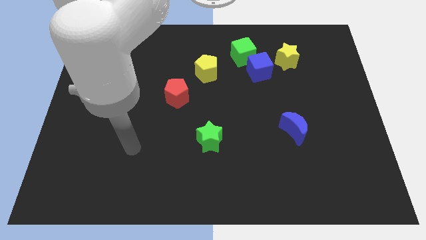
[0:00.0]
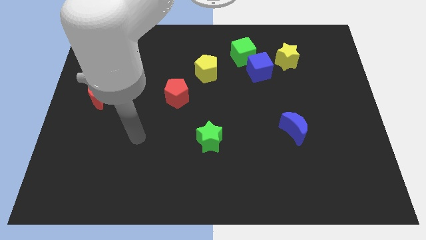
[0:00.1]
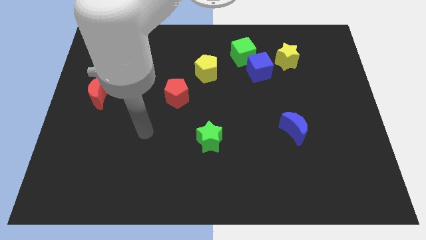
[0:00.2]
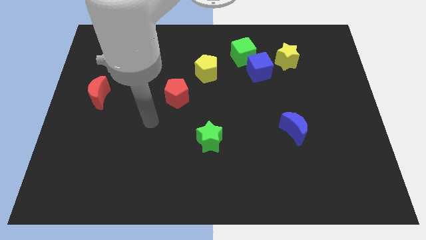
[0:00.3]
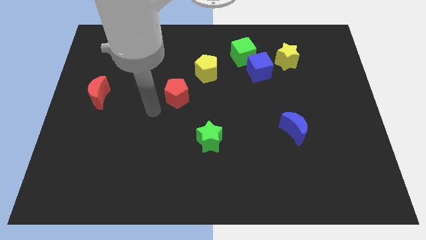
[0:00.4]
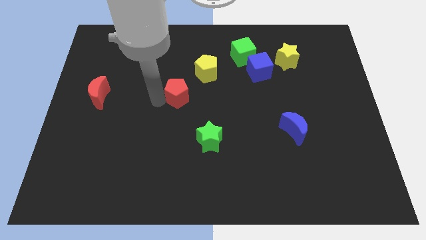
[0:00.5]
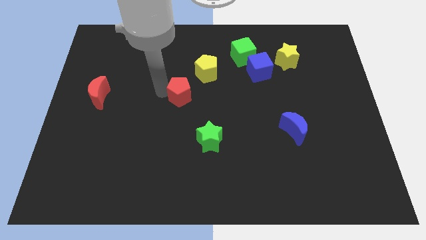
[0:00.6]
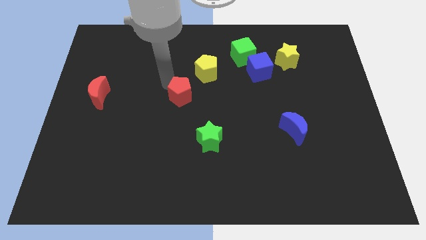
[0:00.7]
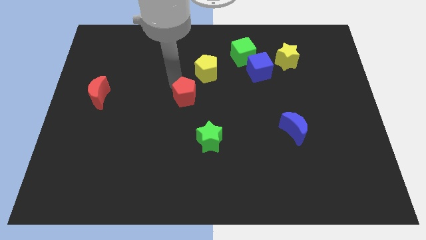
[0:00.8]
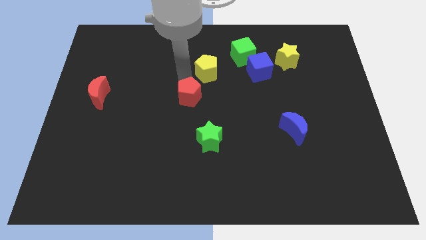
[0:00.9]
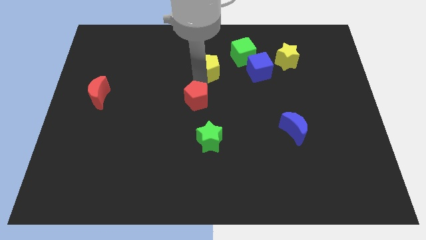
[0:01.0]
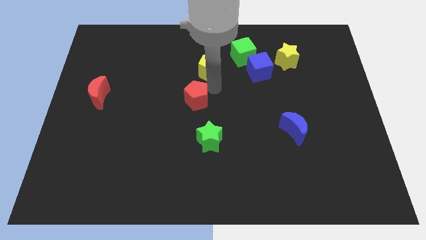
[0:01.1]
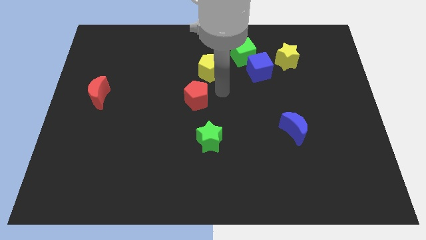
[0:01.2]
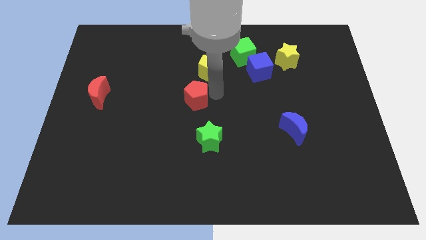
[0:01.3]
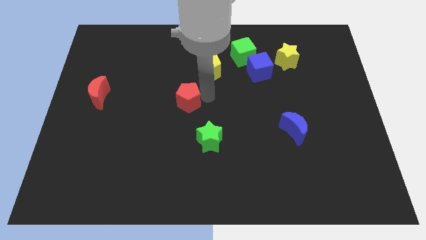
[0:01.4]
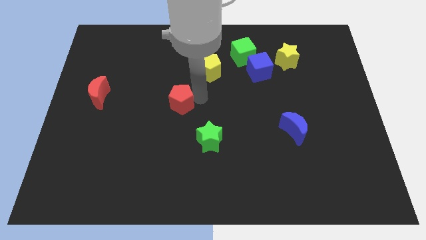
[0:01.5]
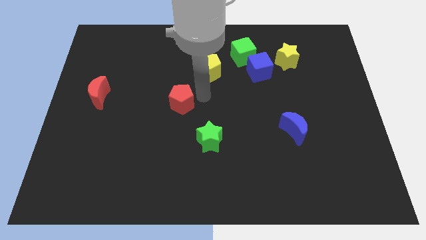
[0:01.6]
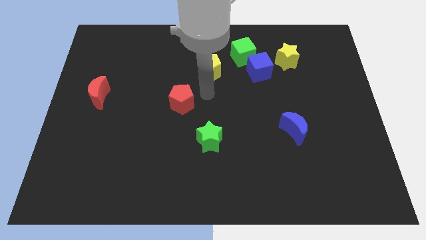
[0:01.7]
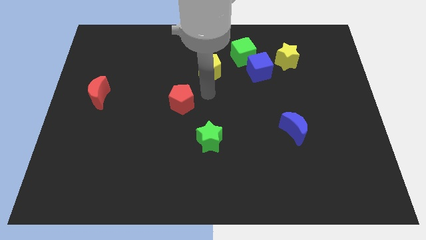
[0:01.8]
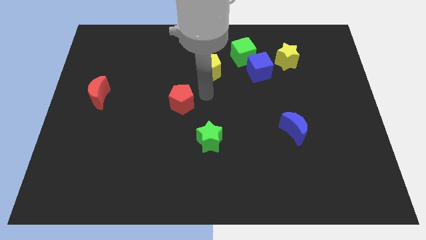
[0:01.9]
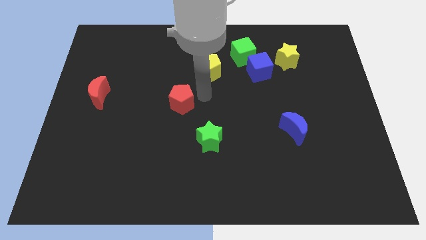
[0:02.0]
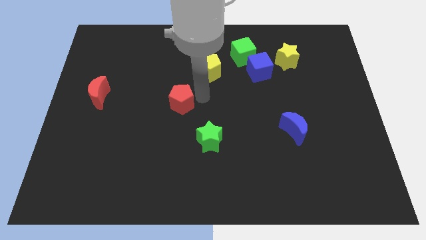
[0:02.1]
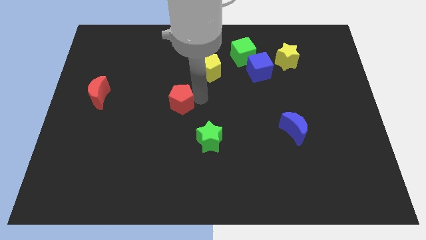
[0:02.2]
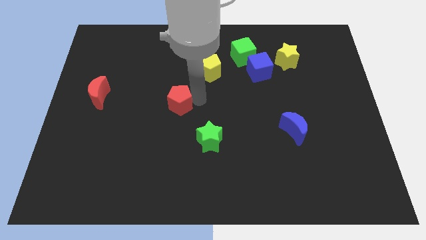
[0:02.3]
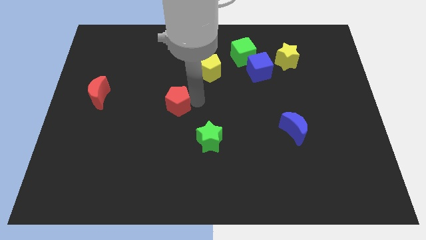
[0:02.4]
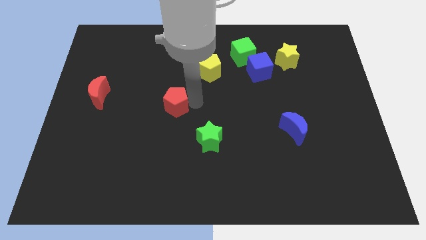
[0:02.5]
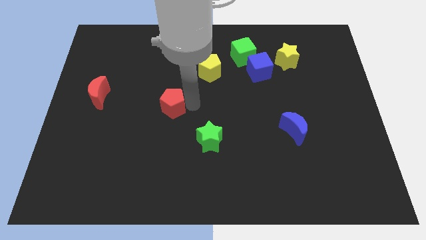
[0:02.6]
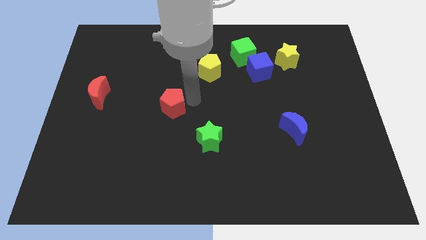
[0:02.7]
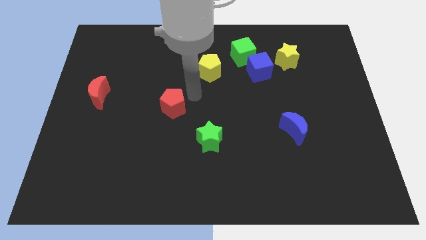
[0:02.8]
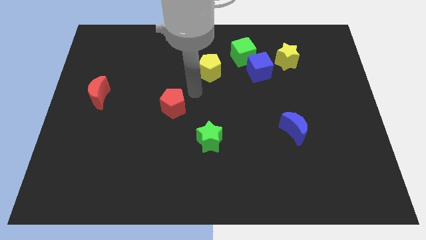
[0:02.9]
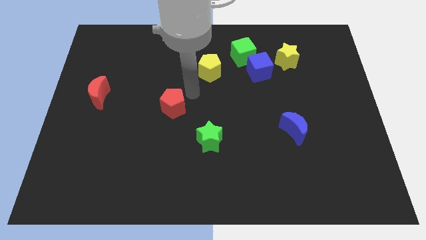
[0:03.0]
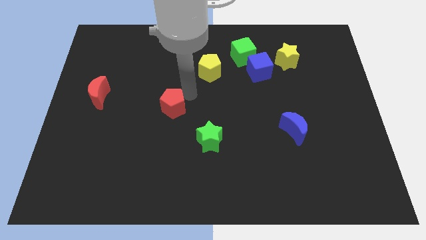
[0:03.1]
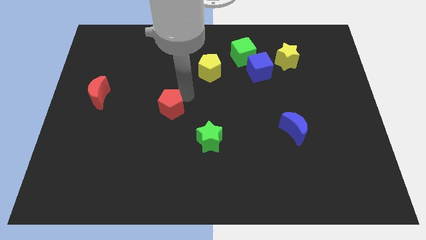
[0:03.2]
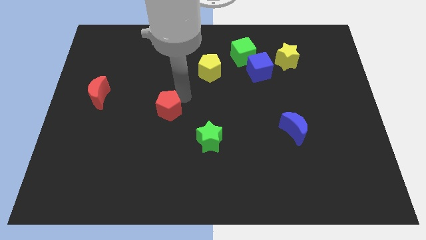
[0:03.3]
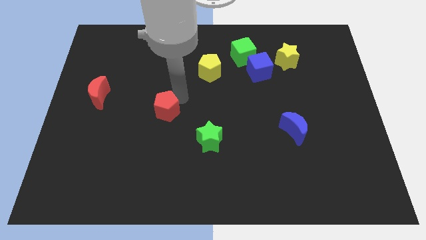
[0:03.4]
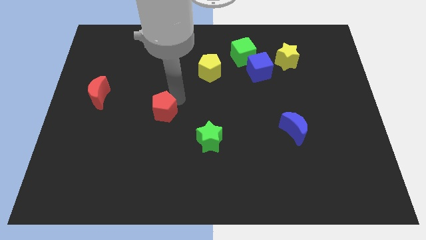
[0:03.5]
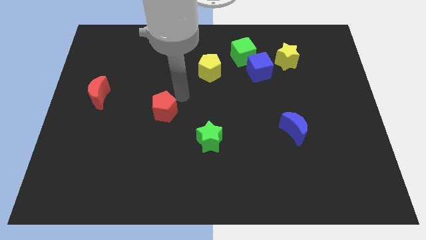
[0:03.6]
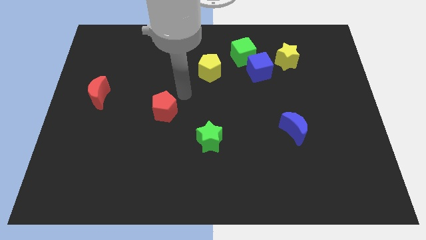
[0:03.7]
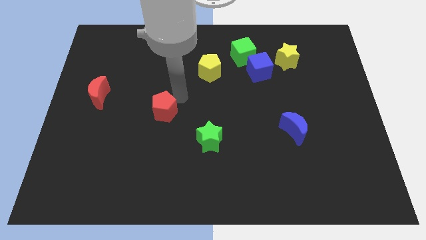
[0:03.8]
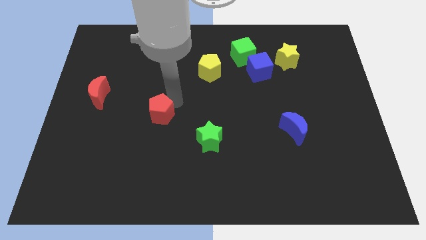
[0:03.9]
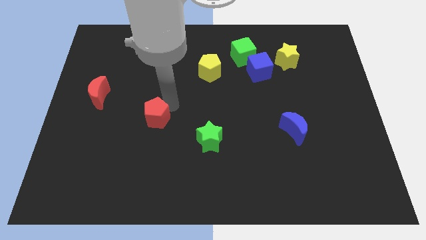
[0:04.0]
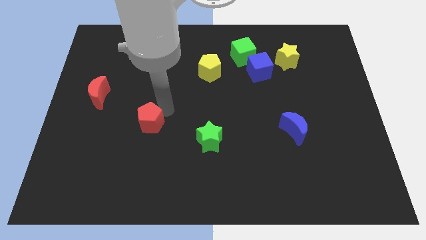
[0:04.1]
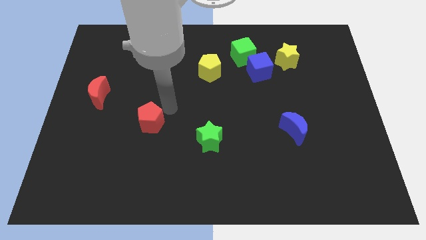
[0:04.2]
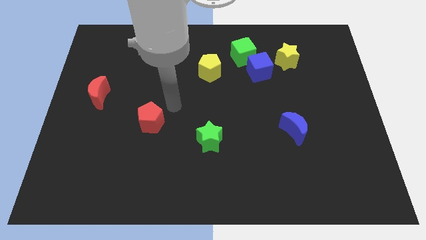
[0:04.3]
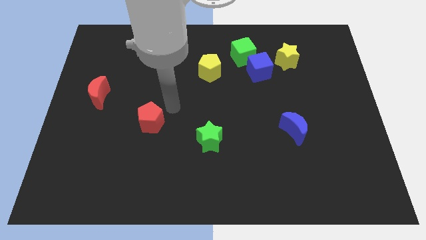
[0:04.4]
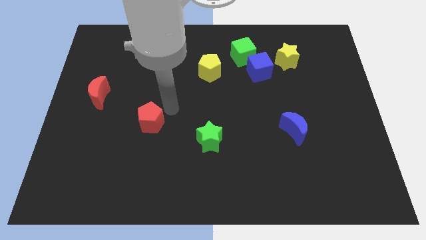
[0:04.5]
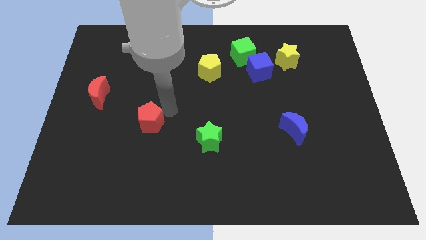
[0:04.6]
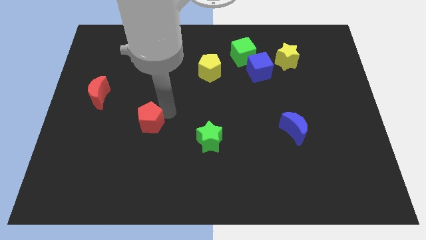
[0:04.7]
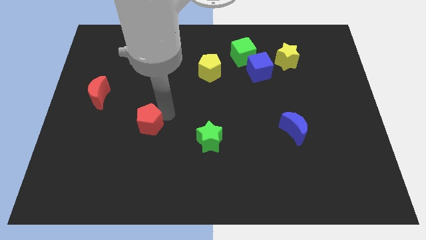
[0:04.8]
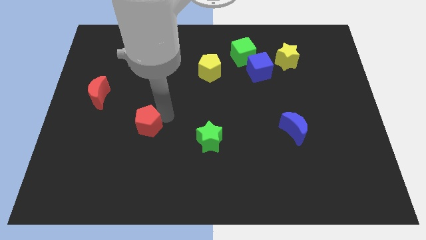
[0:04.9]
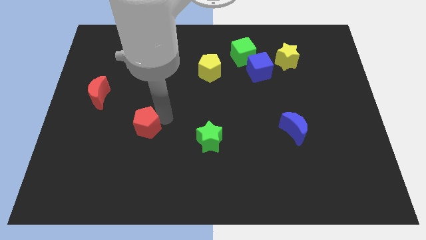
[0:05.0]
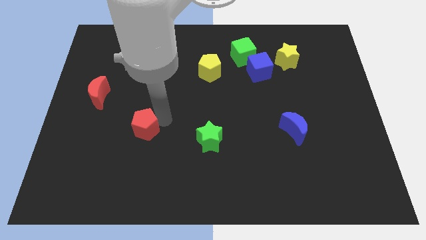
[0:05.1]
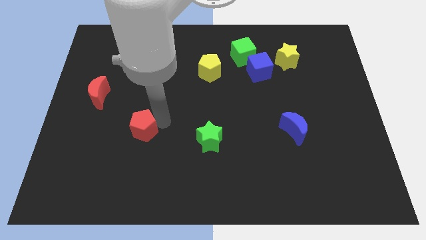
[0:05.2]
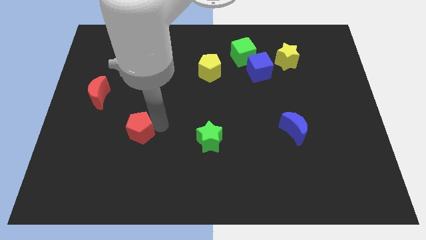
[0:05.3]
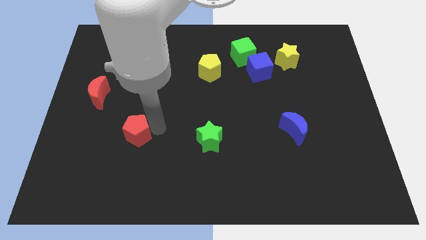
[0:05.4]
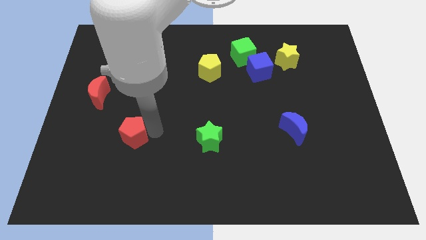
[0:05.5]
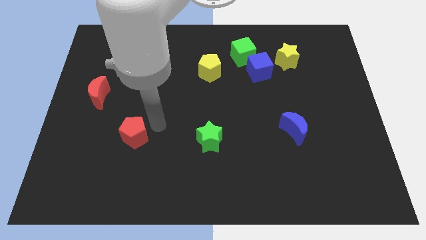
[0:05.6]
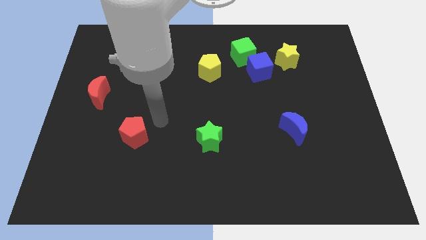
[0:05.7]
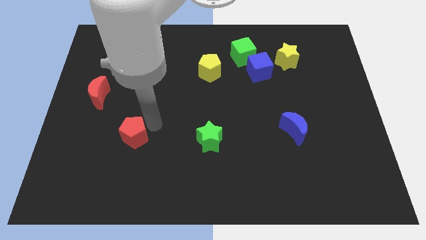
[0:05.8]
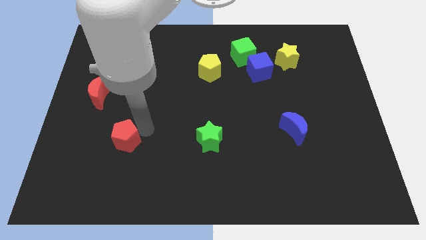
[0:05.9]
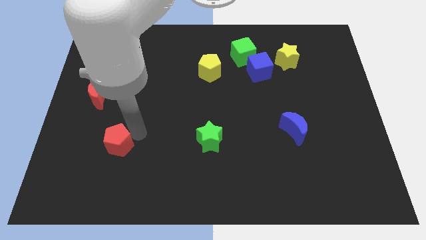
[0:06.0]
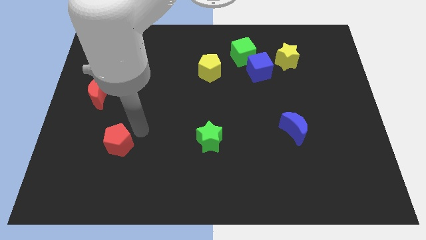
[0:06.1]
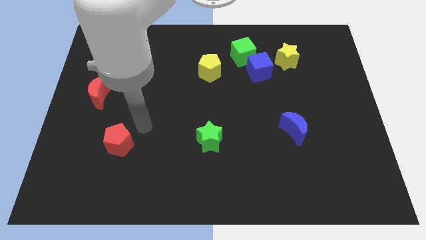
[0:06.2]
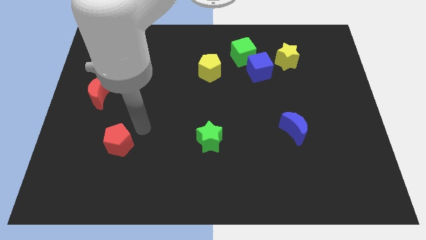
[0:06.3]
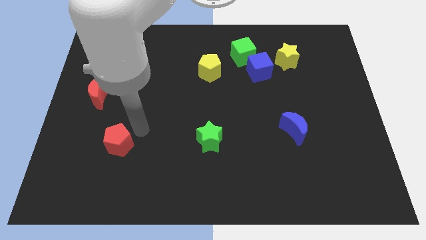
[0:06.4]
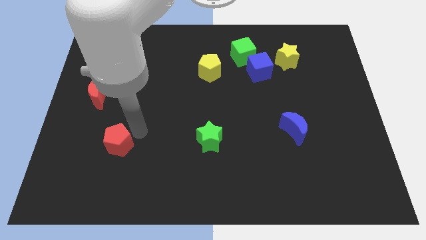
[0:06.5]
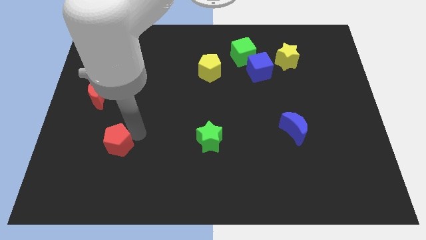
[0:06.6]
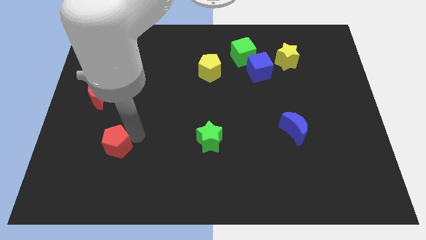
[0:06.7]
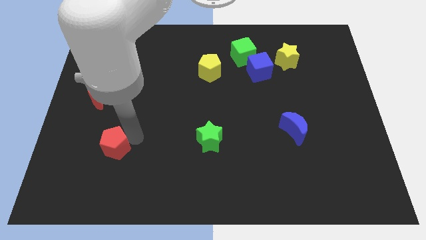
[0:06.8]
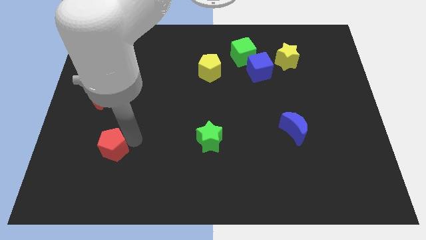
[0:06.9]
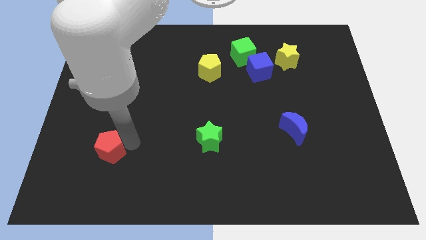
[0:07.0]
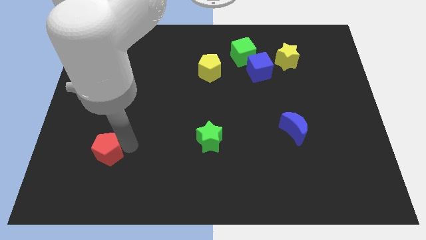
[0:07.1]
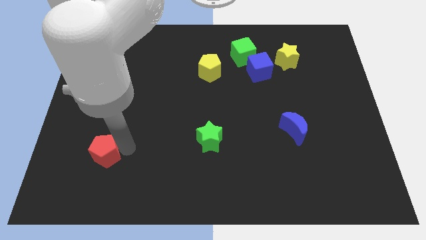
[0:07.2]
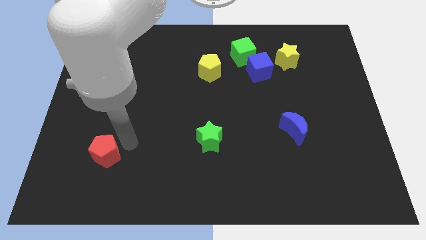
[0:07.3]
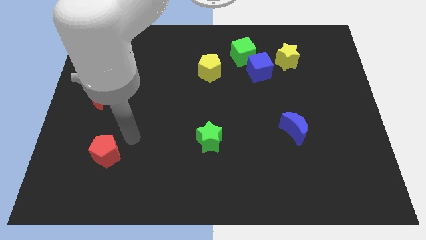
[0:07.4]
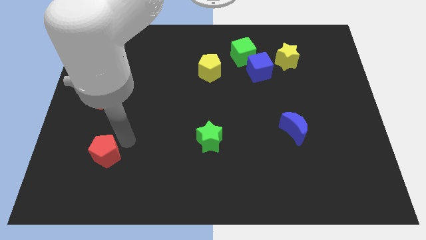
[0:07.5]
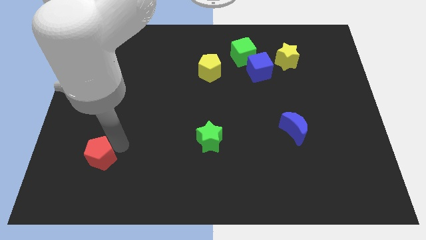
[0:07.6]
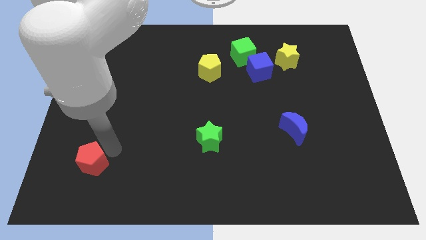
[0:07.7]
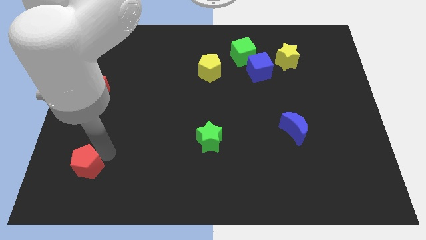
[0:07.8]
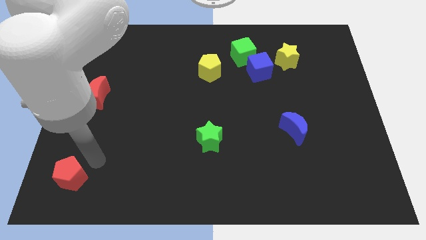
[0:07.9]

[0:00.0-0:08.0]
move the red pentagon to the lower left corner

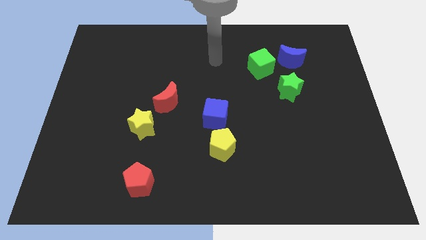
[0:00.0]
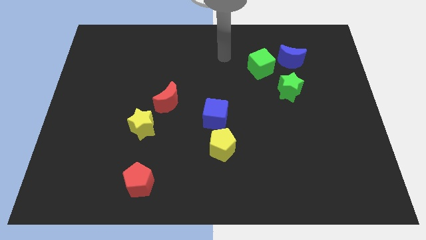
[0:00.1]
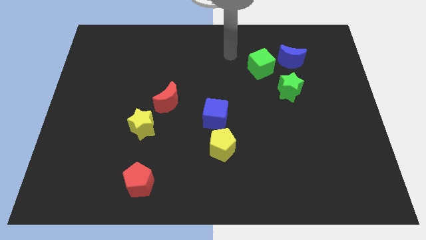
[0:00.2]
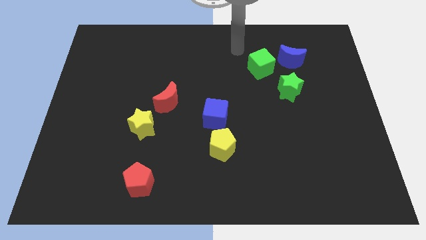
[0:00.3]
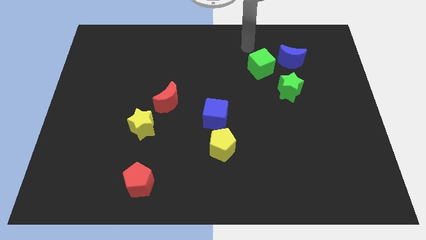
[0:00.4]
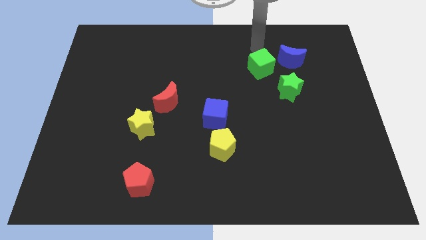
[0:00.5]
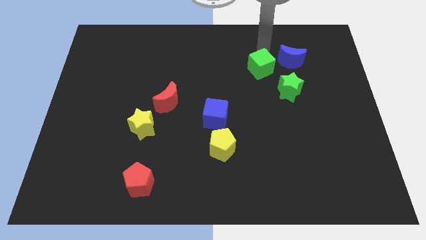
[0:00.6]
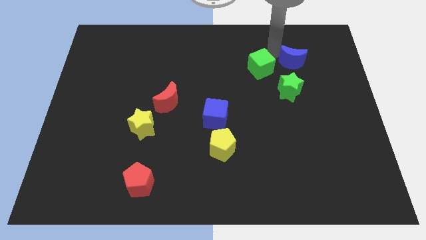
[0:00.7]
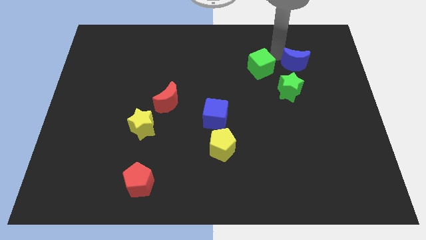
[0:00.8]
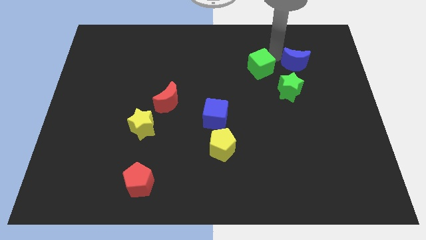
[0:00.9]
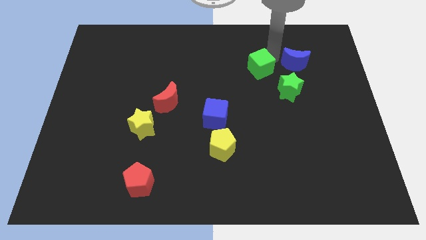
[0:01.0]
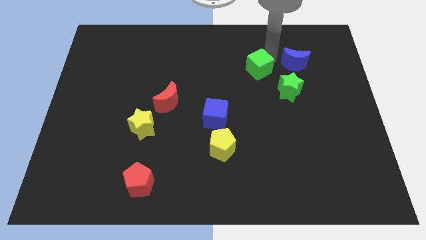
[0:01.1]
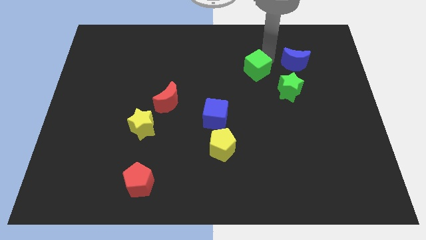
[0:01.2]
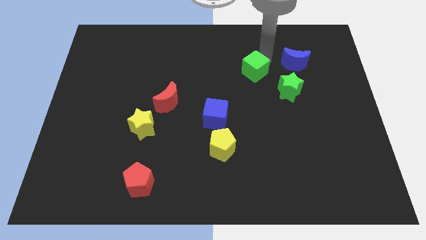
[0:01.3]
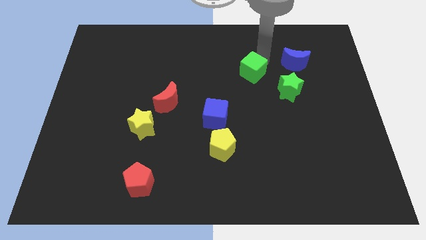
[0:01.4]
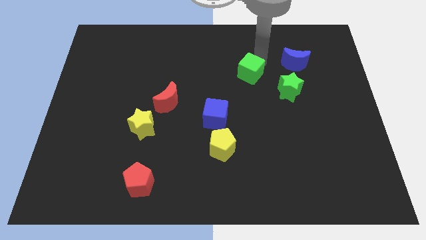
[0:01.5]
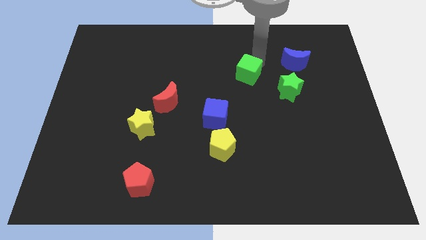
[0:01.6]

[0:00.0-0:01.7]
move the green cube to the center of the board
